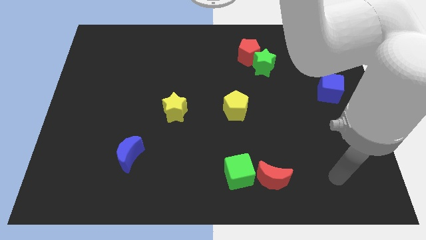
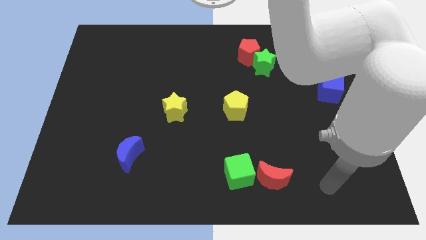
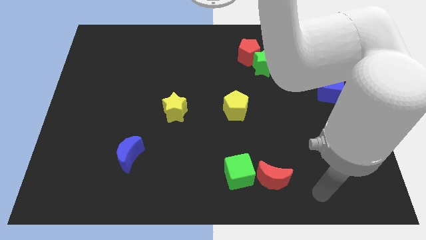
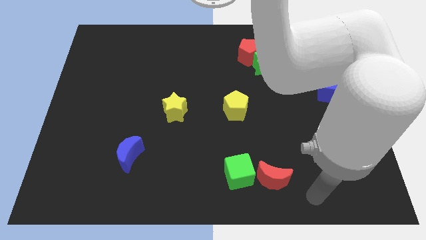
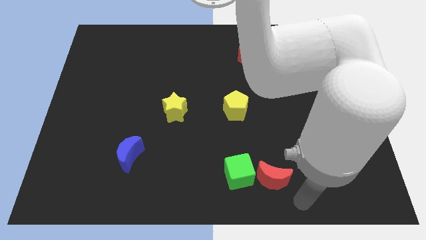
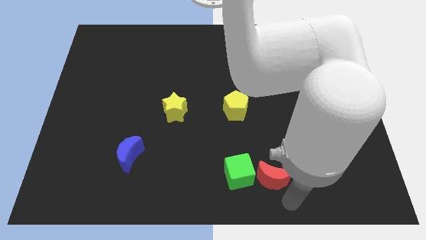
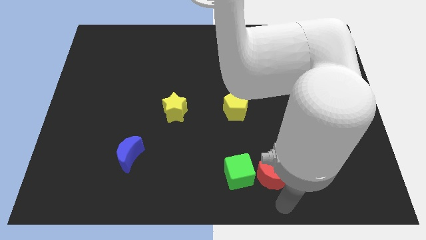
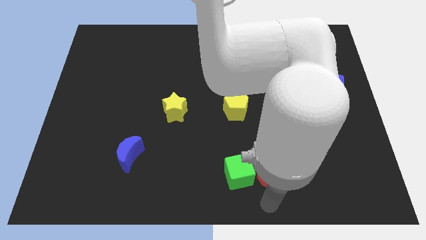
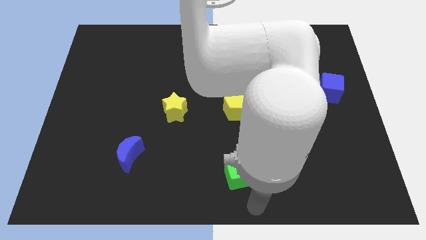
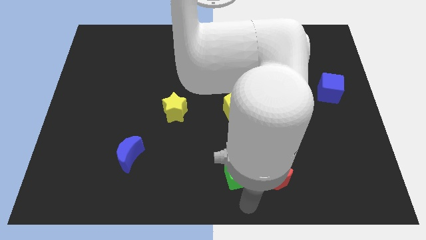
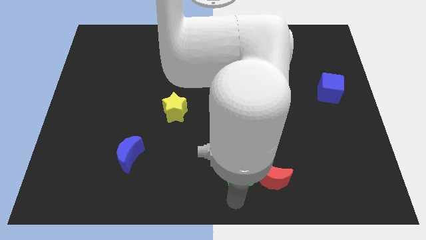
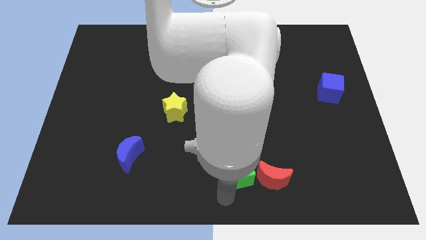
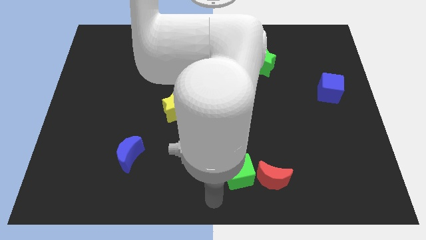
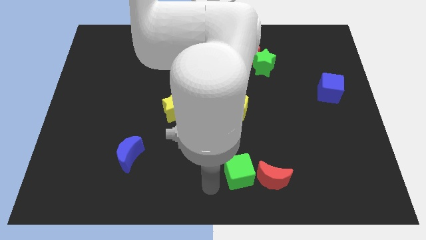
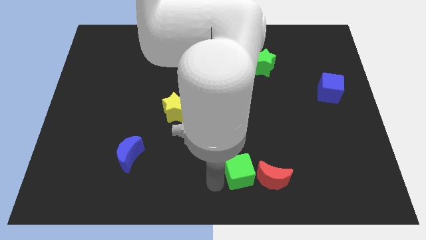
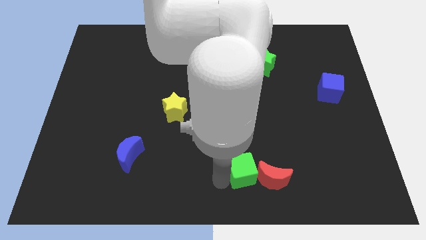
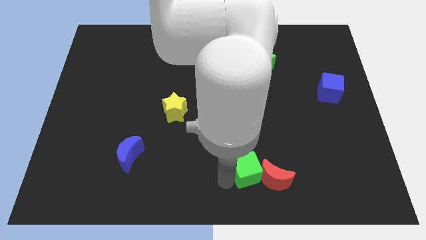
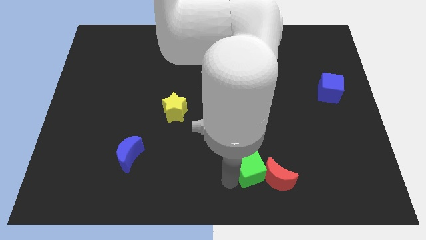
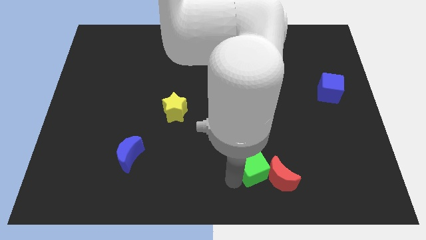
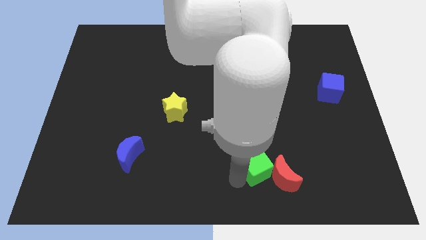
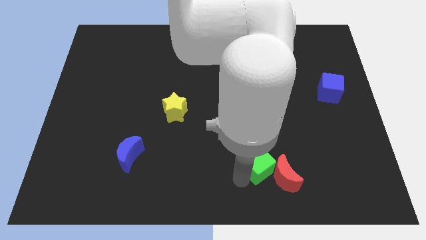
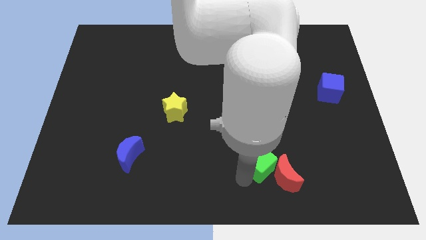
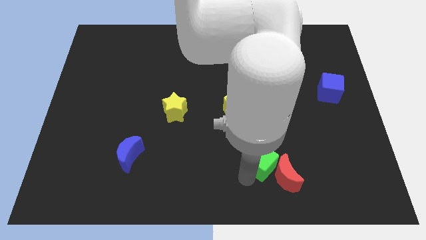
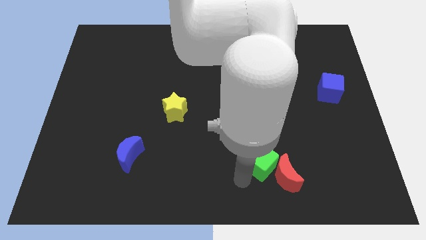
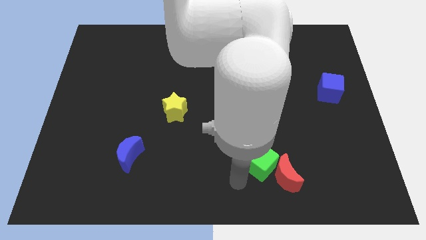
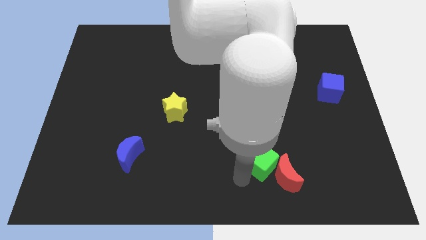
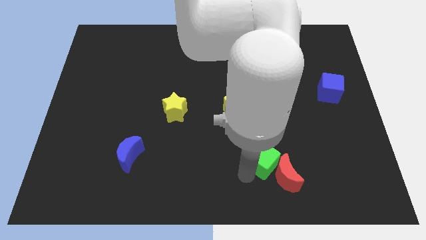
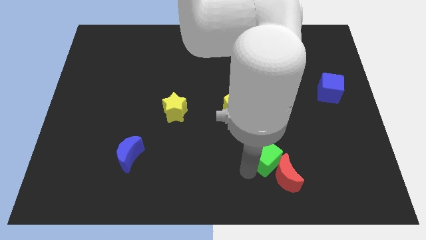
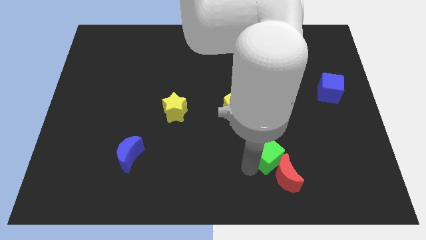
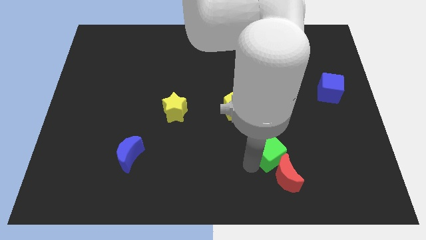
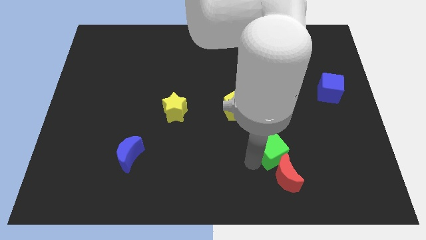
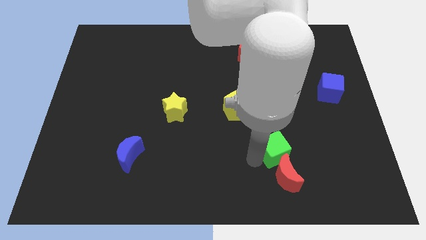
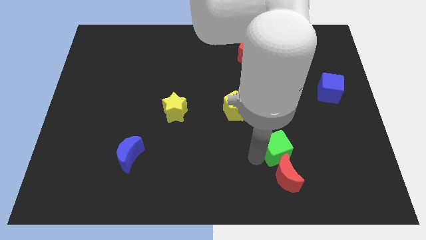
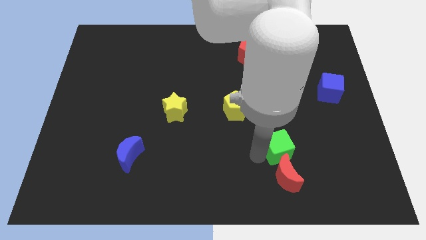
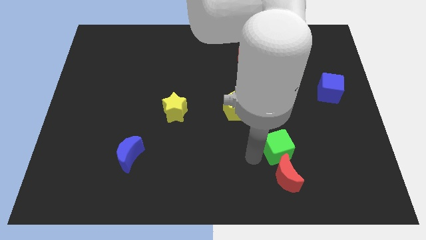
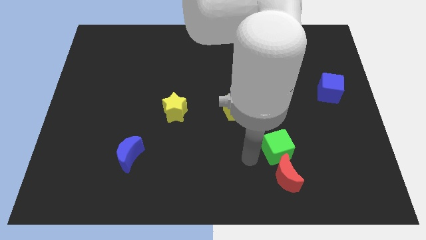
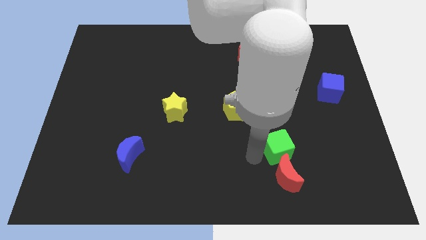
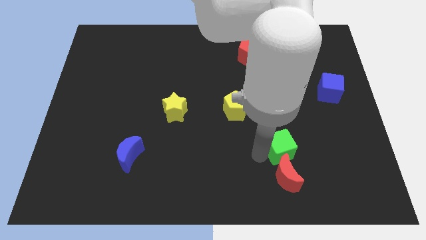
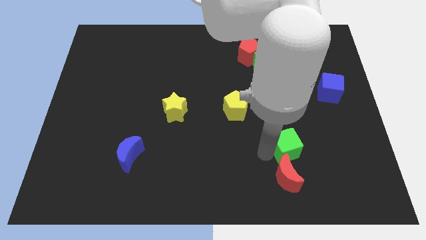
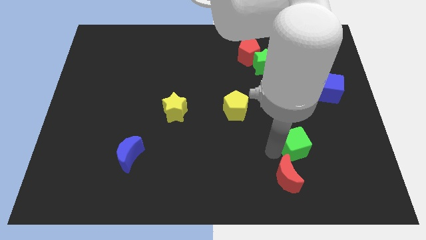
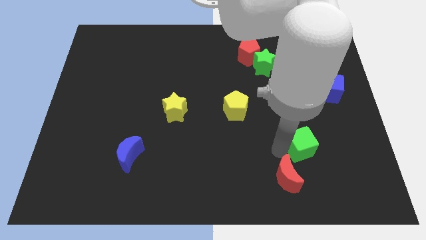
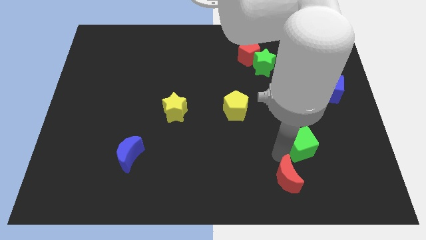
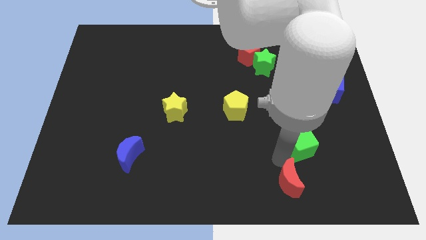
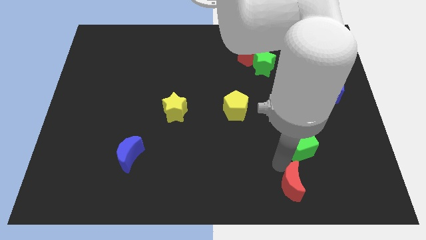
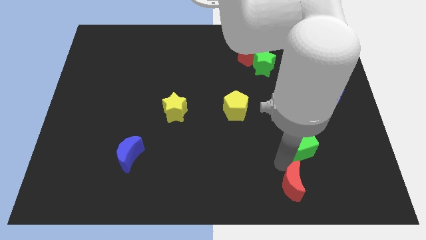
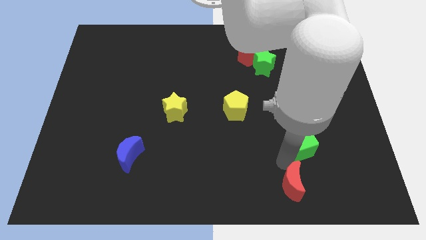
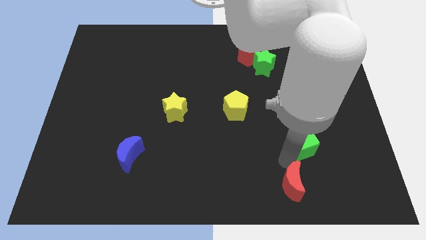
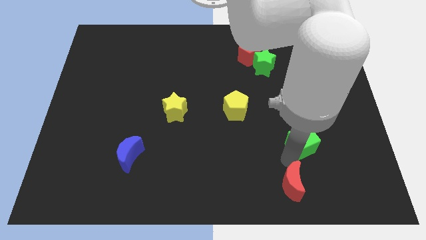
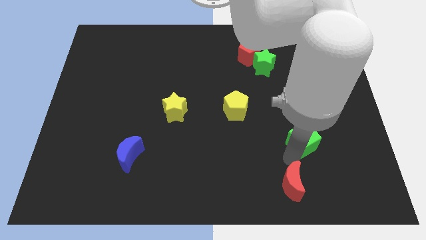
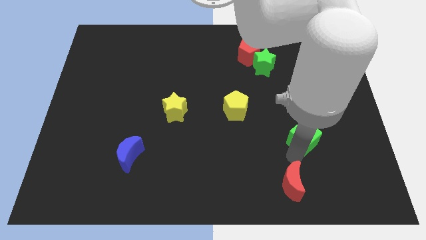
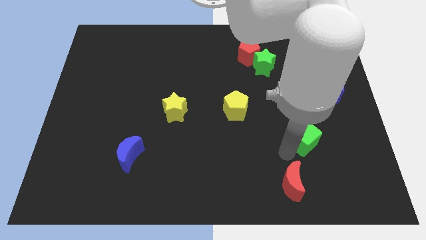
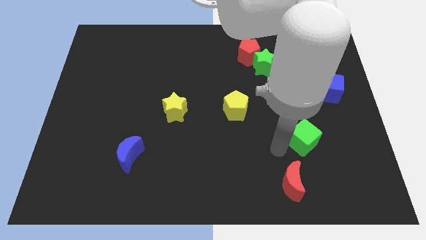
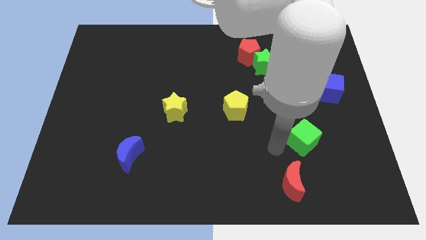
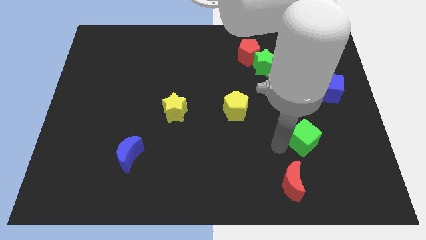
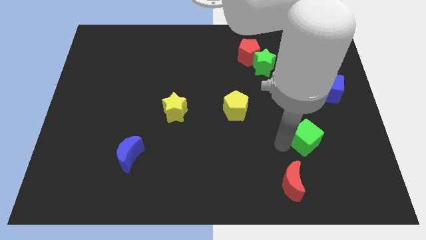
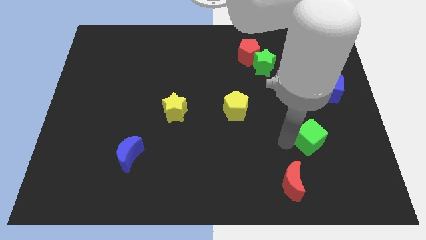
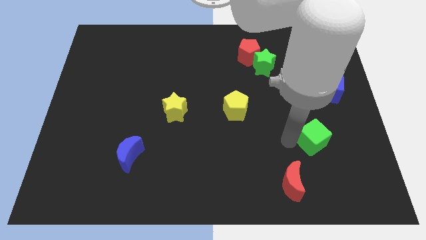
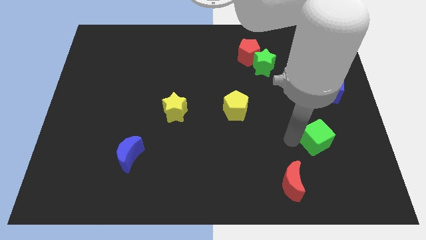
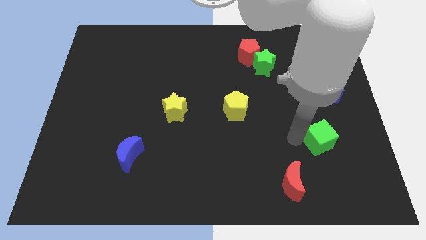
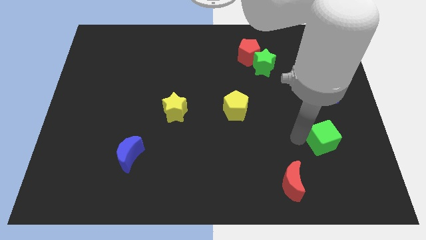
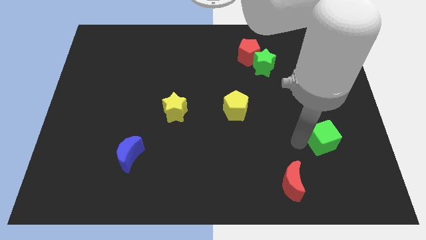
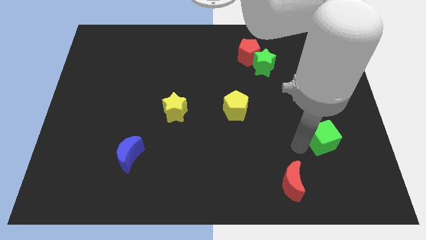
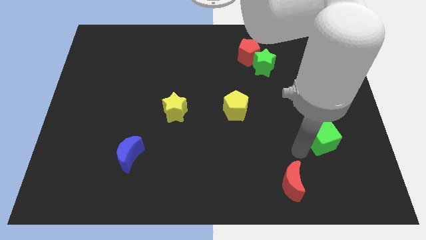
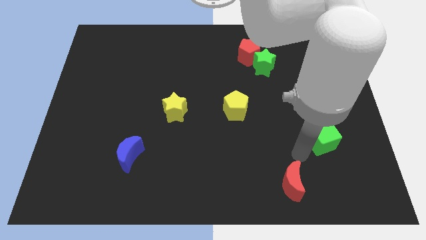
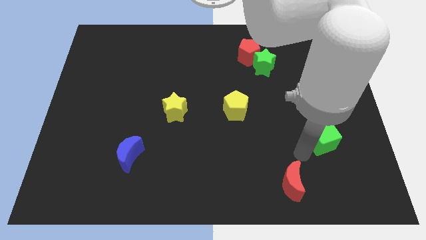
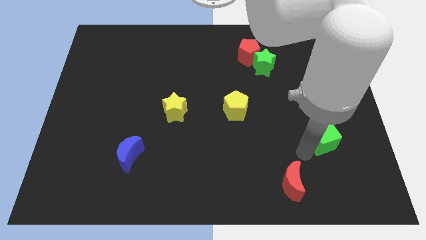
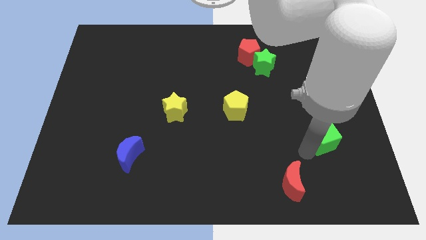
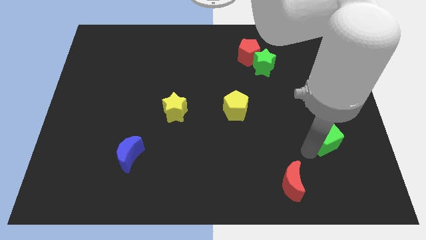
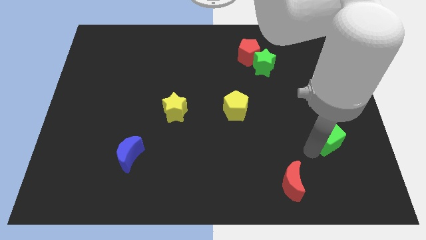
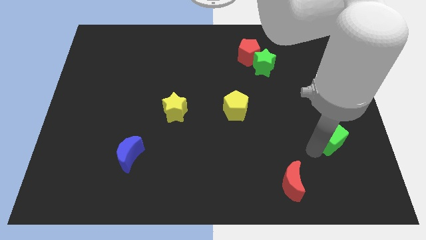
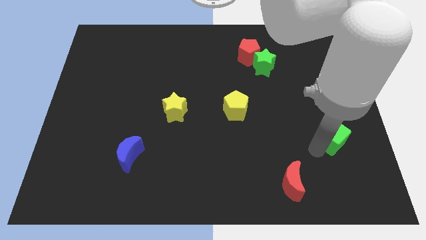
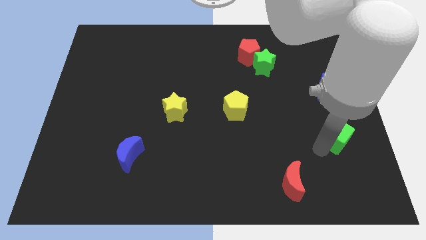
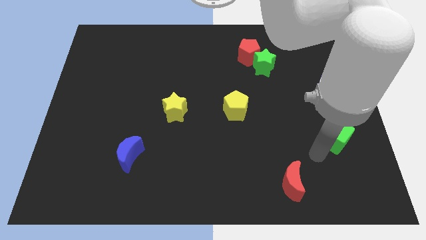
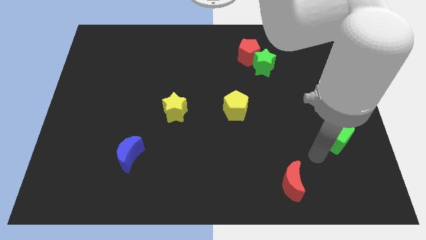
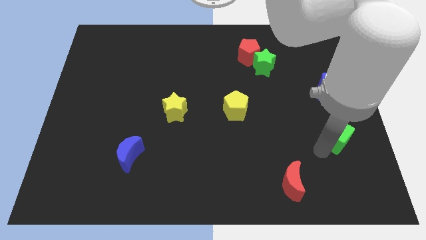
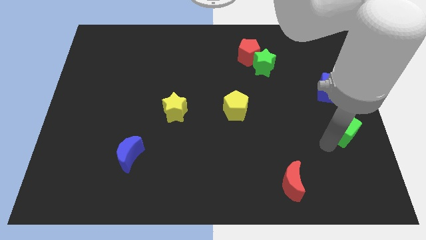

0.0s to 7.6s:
slide the green cube to the center right
